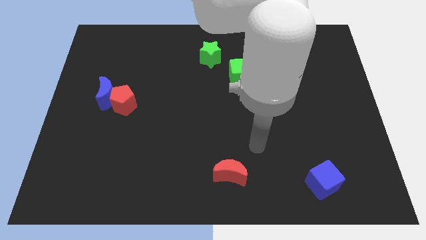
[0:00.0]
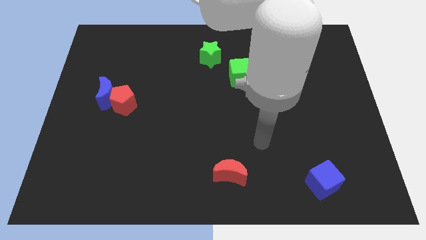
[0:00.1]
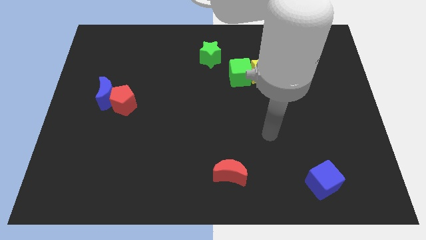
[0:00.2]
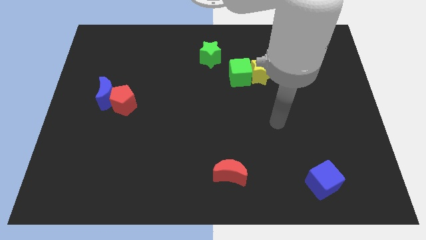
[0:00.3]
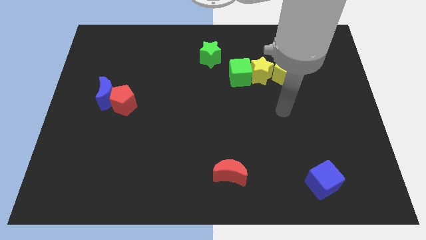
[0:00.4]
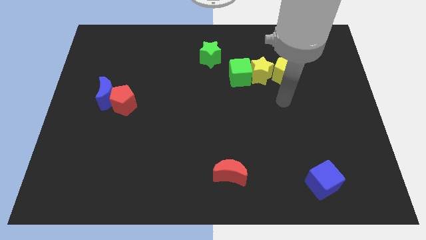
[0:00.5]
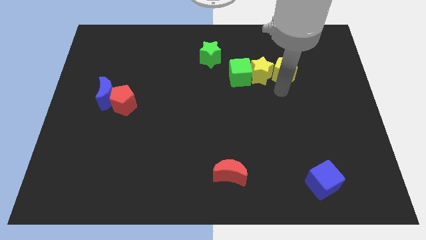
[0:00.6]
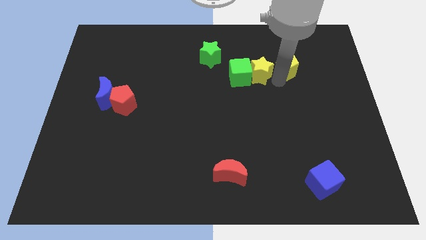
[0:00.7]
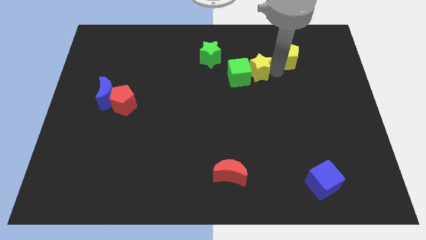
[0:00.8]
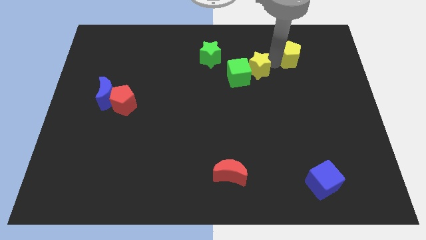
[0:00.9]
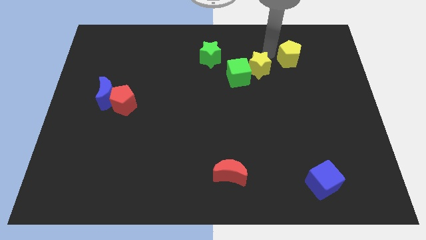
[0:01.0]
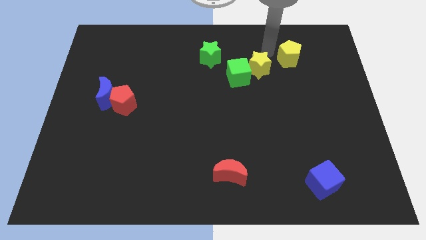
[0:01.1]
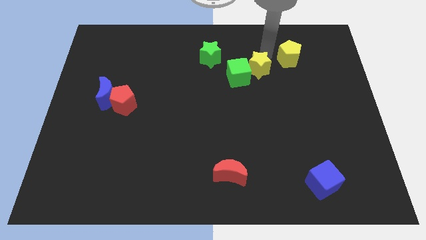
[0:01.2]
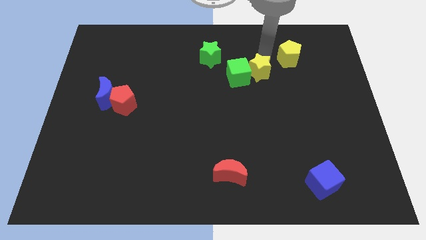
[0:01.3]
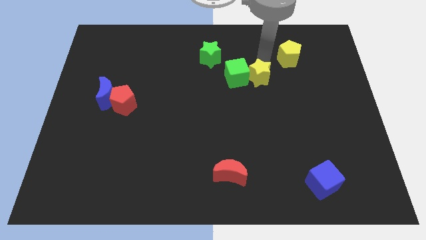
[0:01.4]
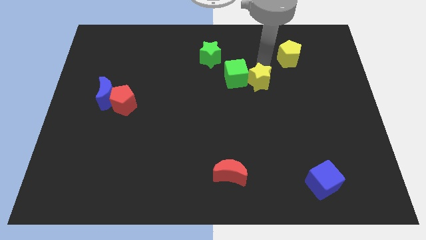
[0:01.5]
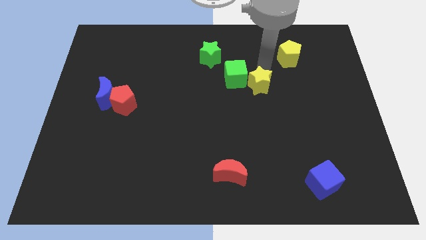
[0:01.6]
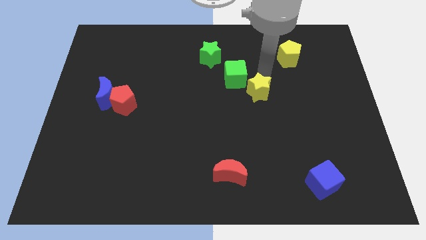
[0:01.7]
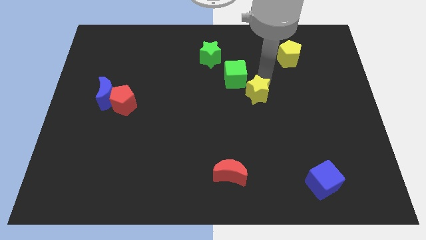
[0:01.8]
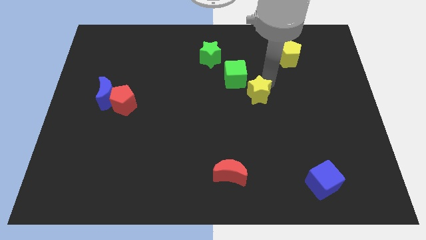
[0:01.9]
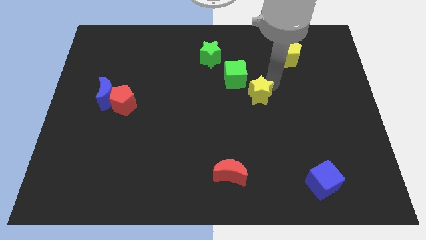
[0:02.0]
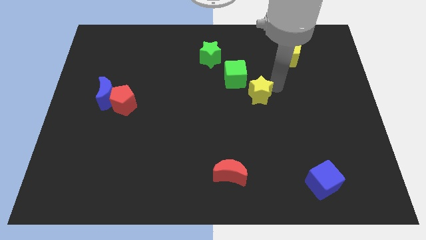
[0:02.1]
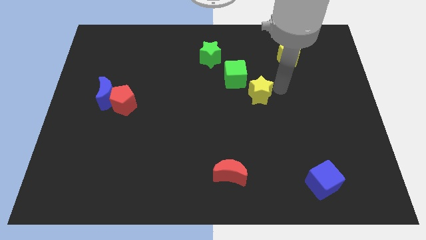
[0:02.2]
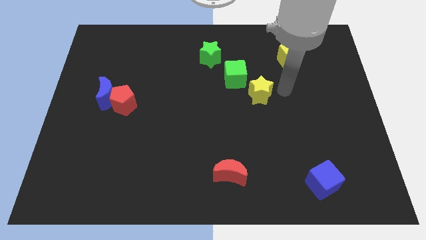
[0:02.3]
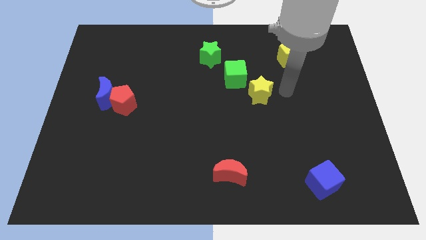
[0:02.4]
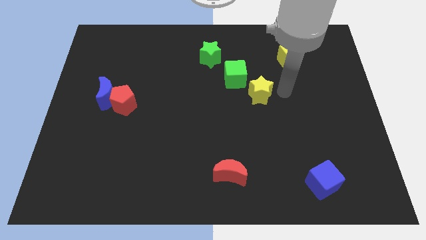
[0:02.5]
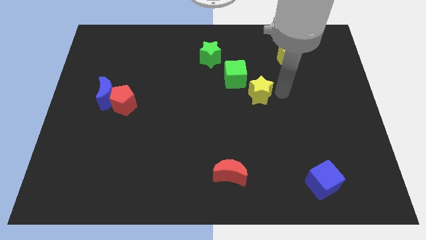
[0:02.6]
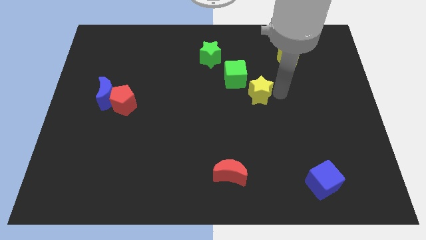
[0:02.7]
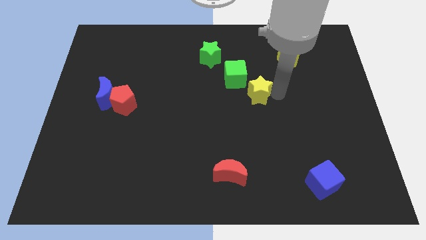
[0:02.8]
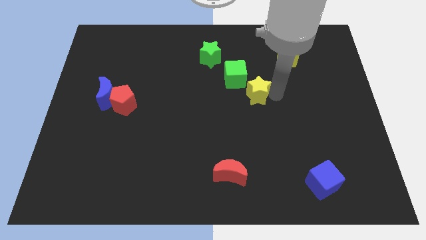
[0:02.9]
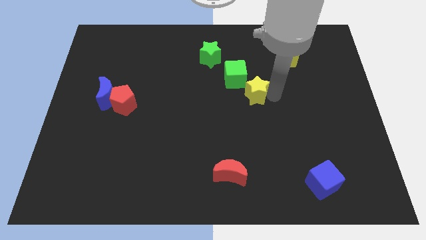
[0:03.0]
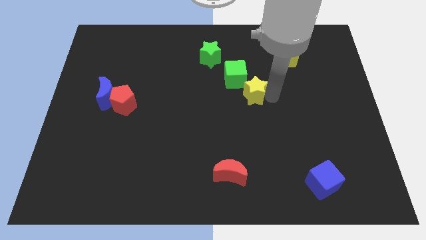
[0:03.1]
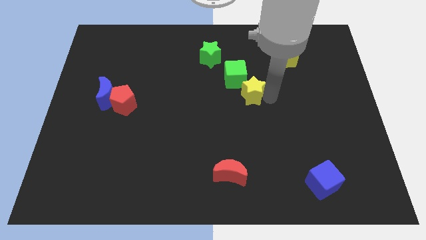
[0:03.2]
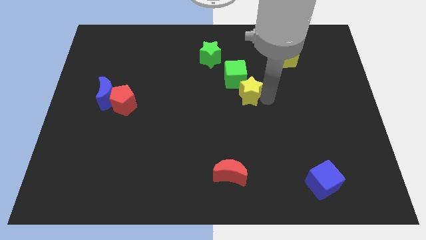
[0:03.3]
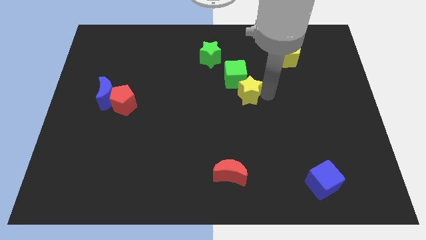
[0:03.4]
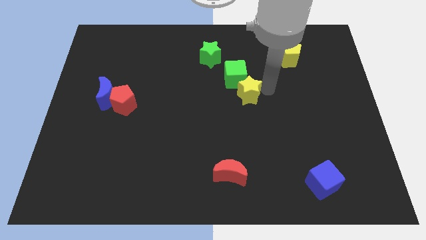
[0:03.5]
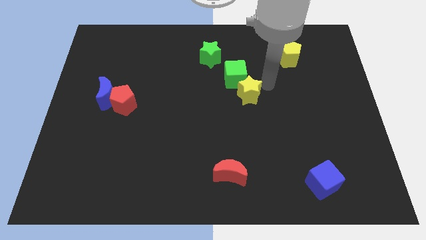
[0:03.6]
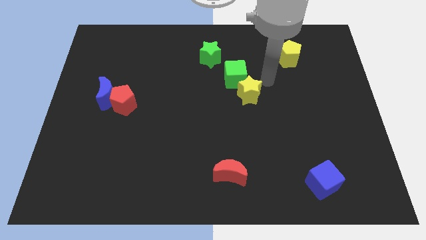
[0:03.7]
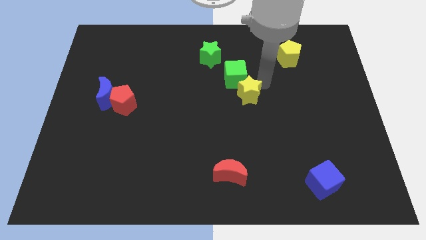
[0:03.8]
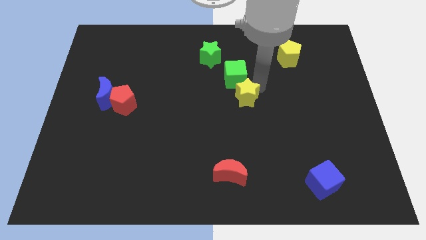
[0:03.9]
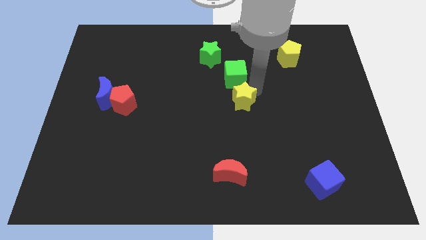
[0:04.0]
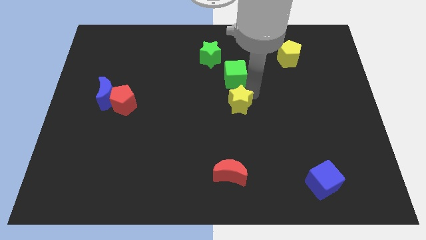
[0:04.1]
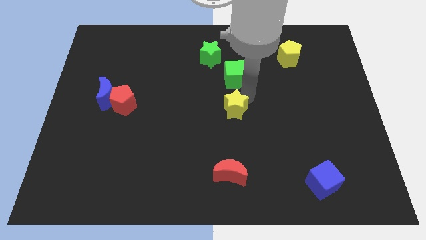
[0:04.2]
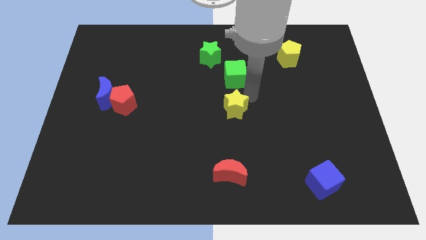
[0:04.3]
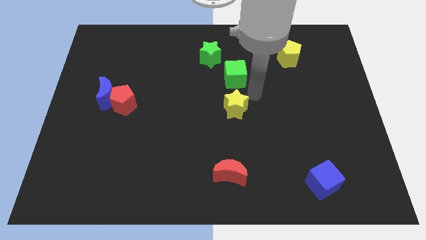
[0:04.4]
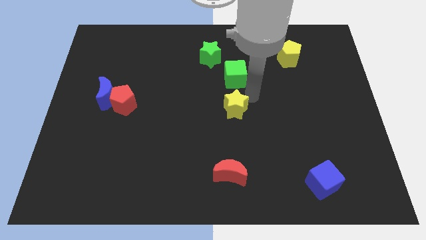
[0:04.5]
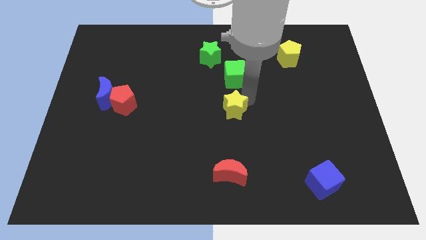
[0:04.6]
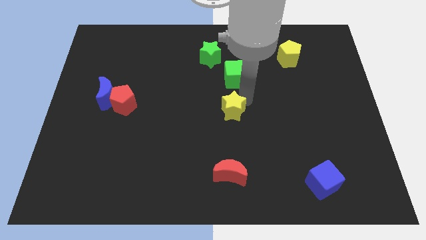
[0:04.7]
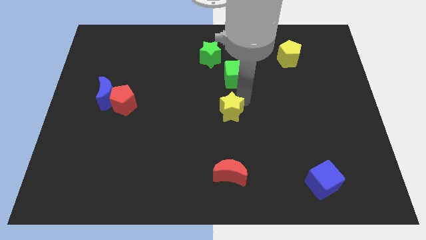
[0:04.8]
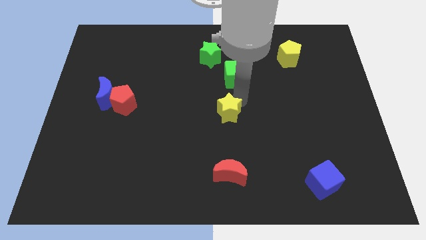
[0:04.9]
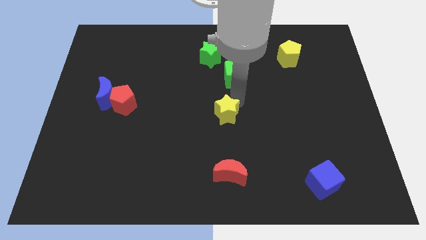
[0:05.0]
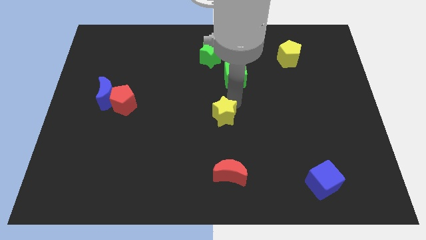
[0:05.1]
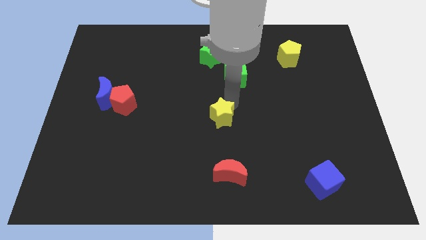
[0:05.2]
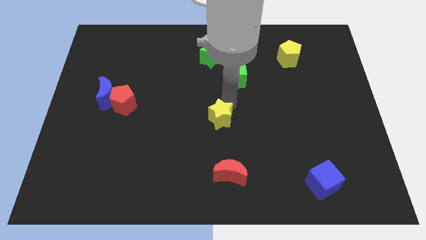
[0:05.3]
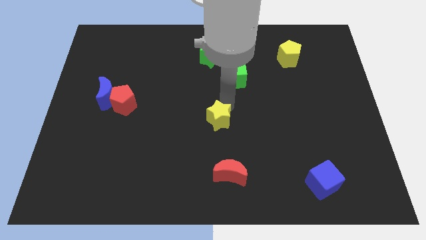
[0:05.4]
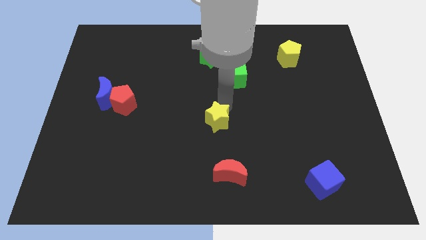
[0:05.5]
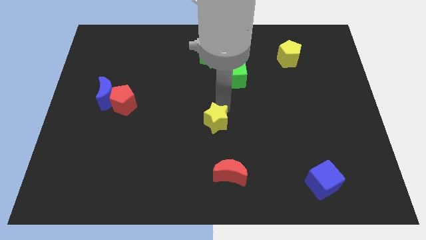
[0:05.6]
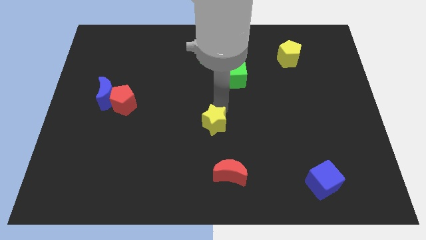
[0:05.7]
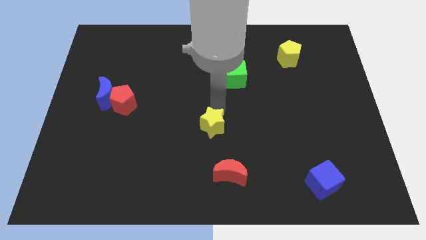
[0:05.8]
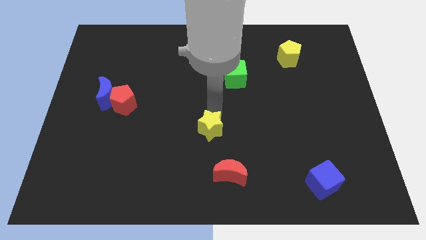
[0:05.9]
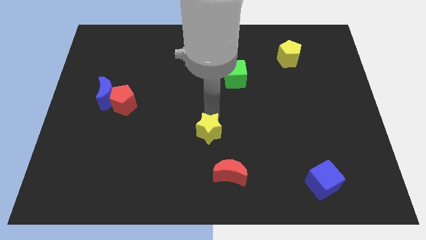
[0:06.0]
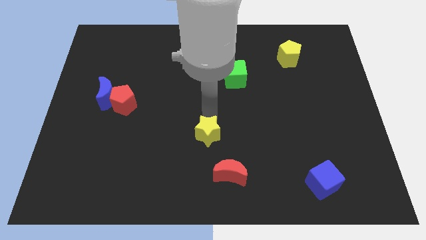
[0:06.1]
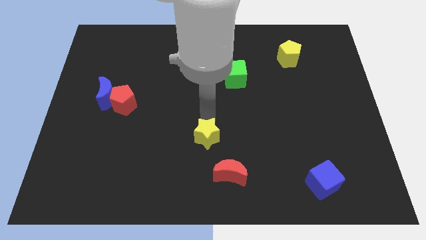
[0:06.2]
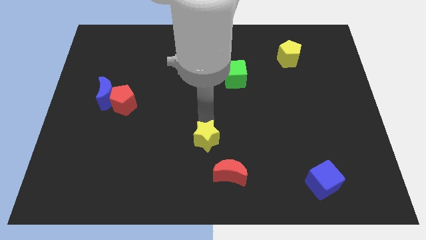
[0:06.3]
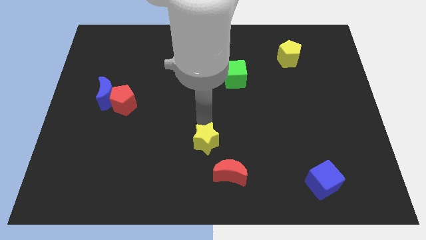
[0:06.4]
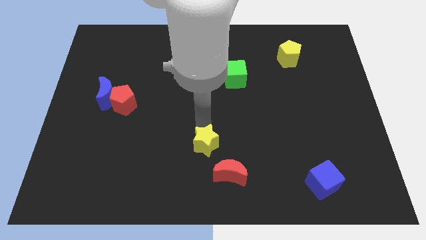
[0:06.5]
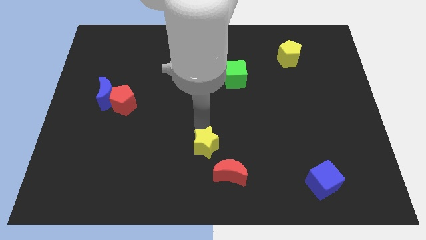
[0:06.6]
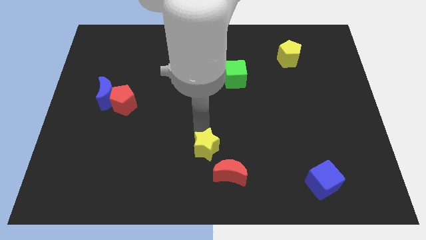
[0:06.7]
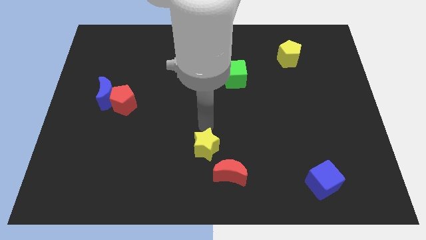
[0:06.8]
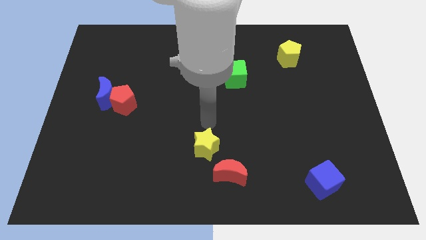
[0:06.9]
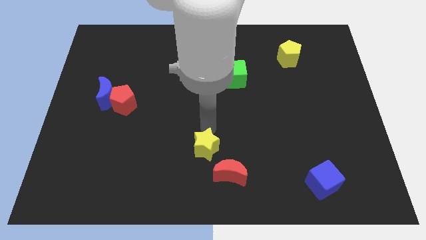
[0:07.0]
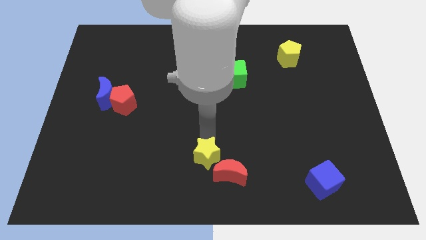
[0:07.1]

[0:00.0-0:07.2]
move the yellow star to the bottom
